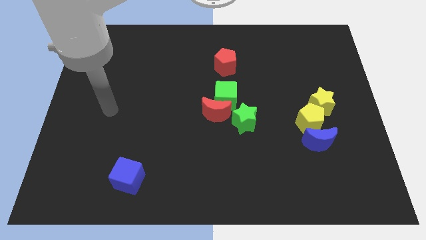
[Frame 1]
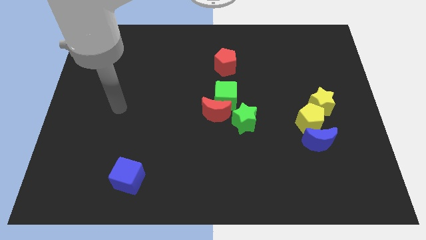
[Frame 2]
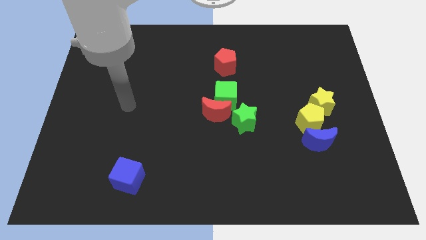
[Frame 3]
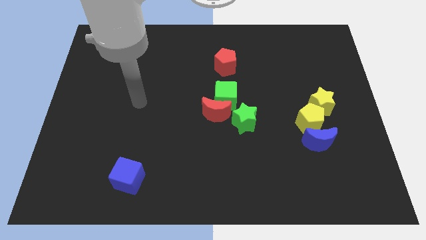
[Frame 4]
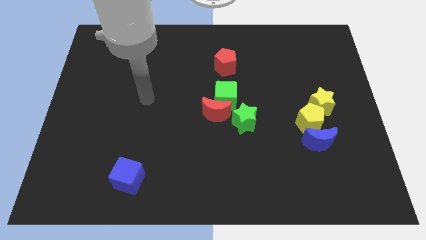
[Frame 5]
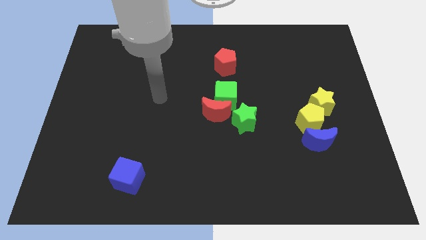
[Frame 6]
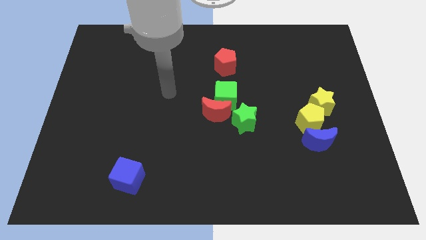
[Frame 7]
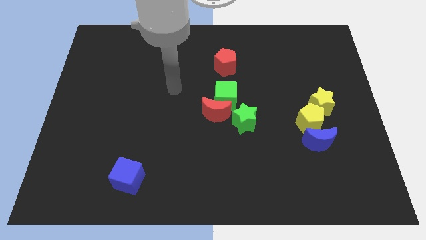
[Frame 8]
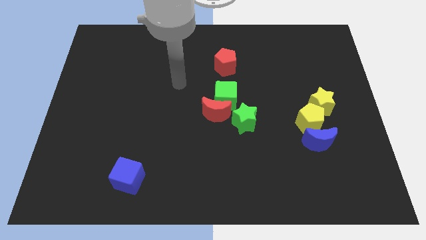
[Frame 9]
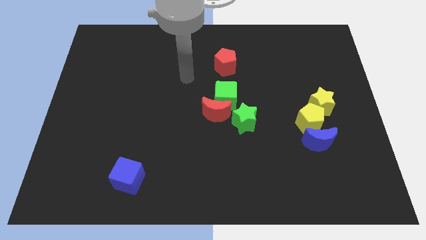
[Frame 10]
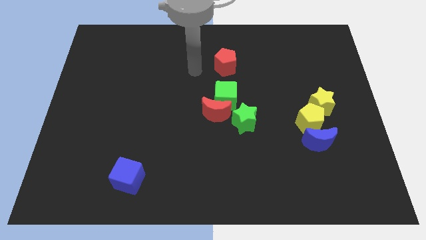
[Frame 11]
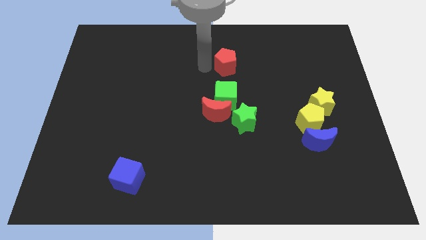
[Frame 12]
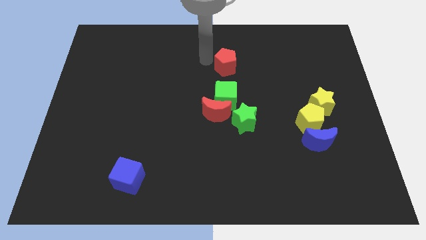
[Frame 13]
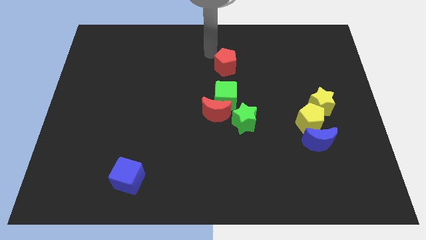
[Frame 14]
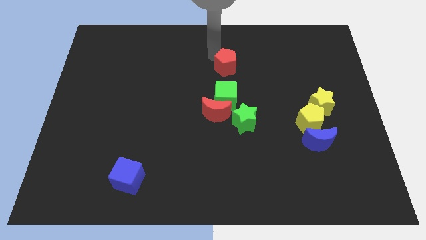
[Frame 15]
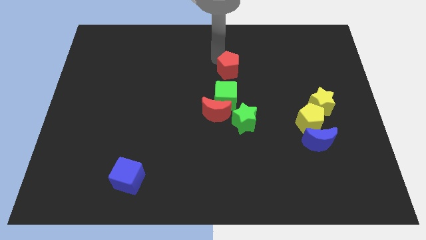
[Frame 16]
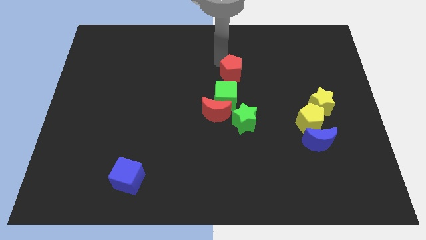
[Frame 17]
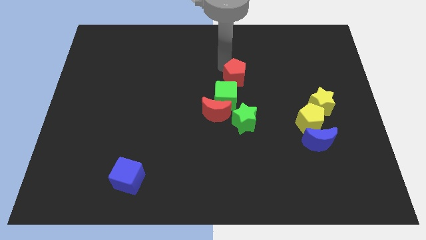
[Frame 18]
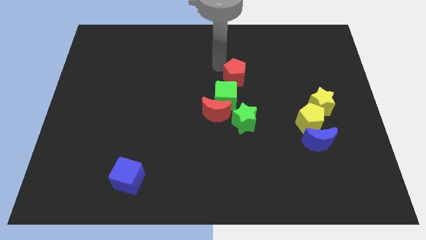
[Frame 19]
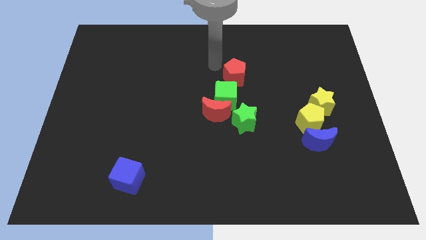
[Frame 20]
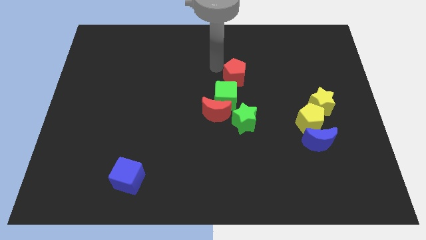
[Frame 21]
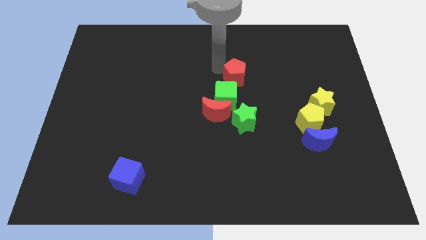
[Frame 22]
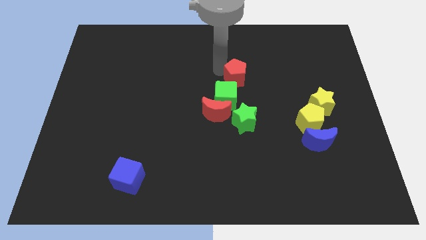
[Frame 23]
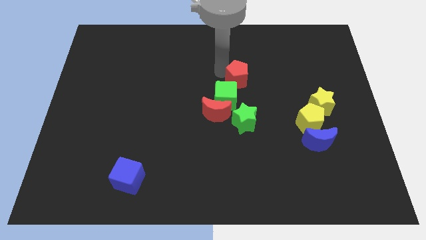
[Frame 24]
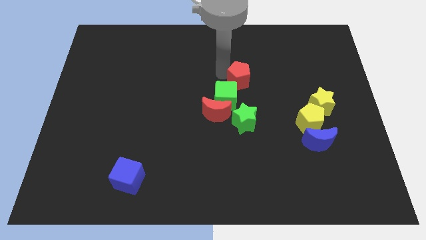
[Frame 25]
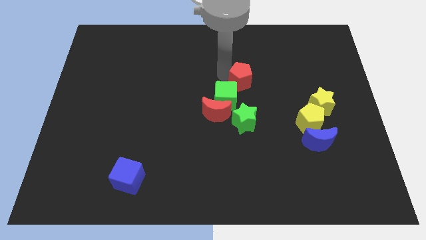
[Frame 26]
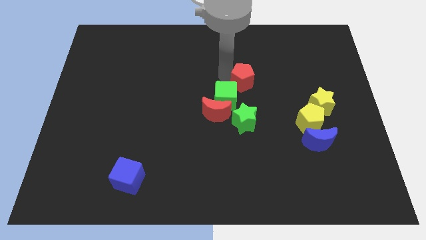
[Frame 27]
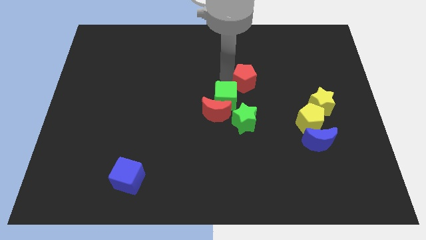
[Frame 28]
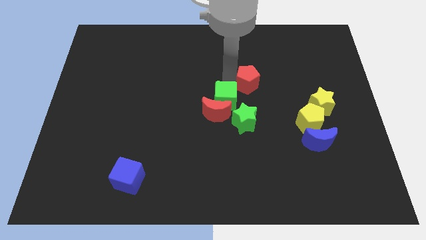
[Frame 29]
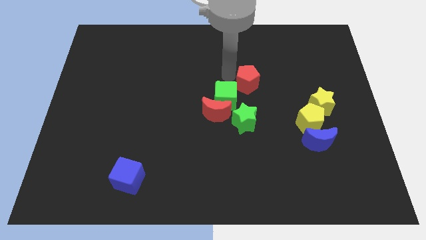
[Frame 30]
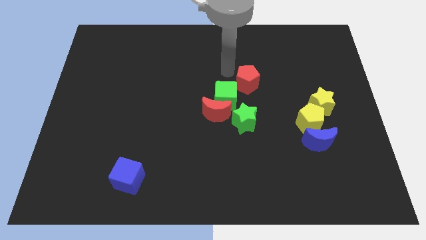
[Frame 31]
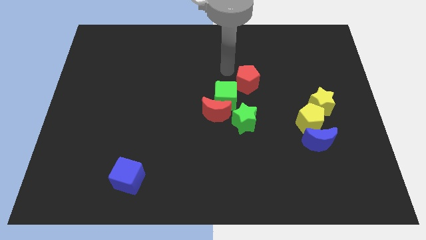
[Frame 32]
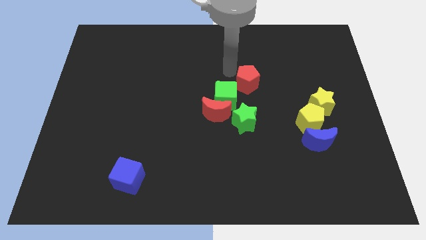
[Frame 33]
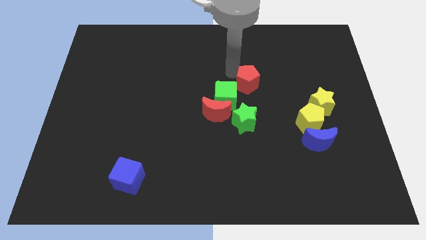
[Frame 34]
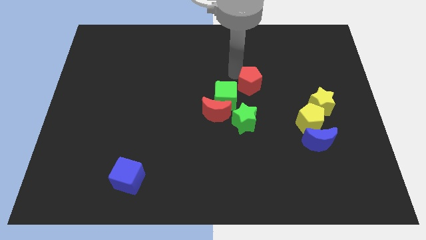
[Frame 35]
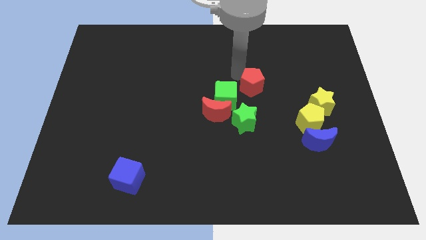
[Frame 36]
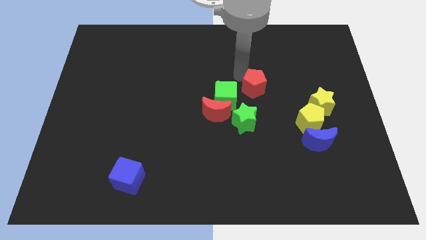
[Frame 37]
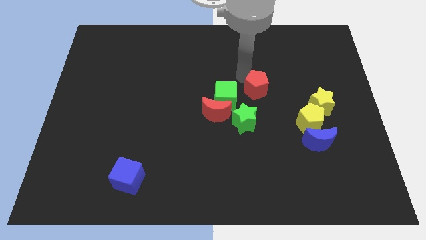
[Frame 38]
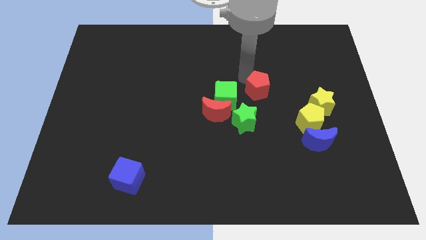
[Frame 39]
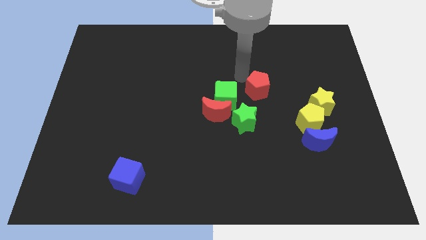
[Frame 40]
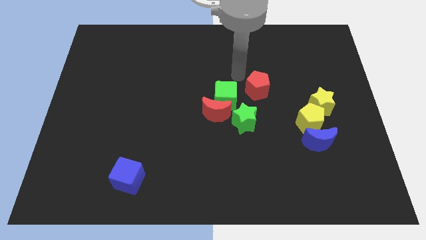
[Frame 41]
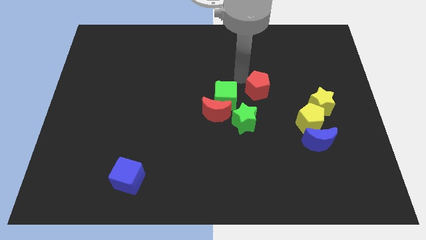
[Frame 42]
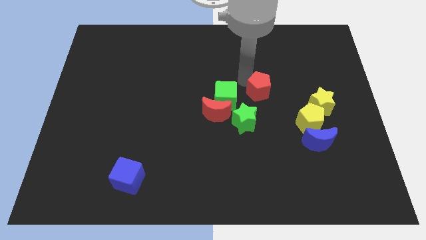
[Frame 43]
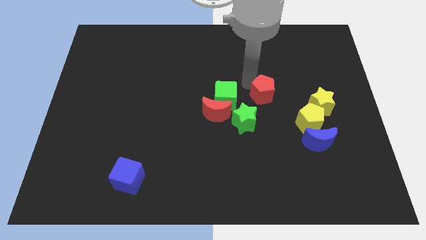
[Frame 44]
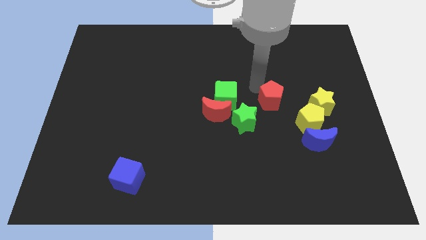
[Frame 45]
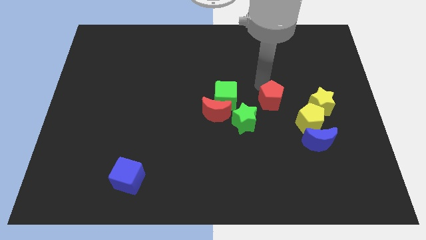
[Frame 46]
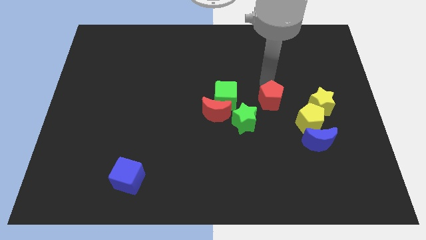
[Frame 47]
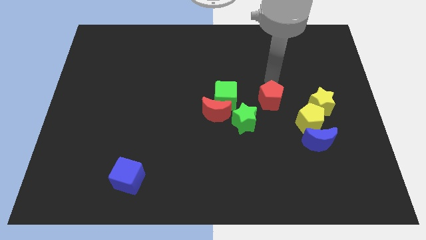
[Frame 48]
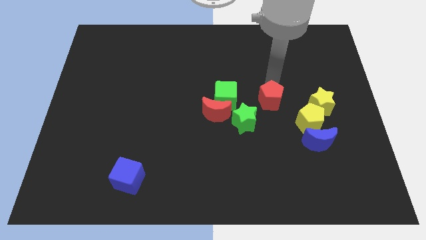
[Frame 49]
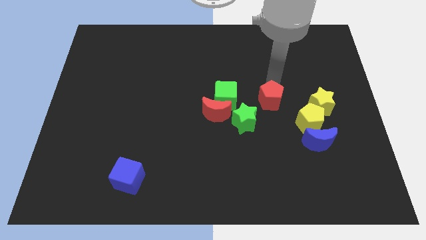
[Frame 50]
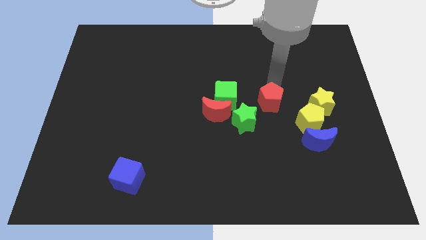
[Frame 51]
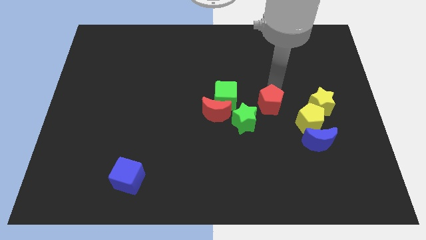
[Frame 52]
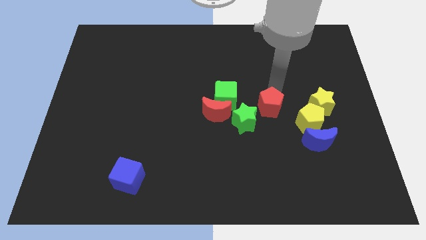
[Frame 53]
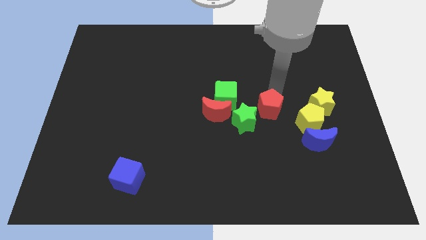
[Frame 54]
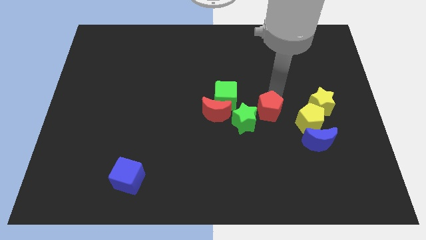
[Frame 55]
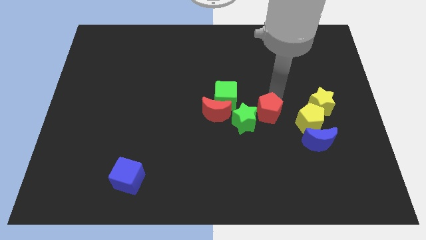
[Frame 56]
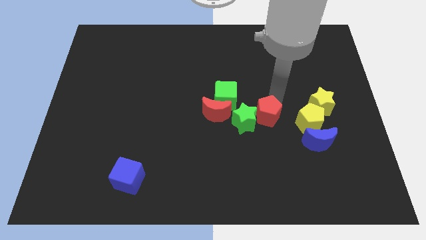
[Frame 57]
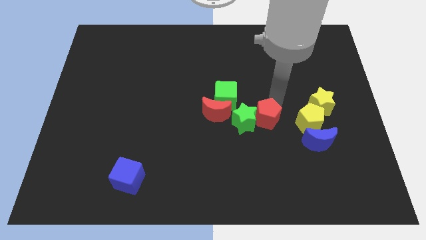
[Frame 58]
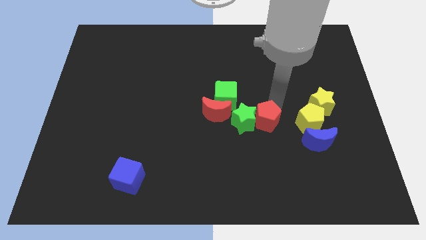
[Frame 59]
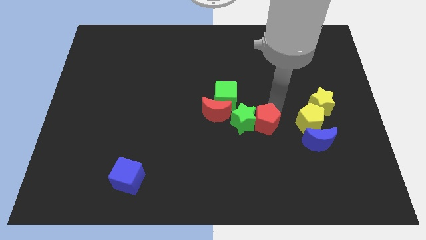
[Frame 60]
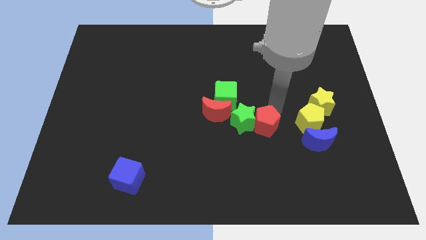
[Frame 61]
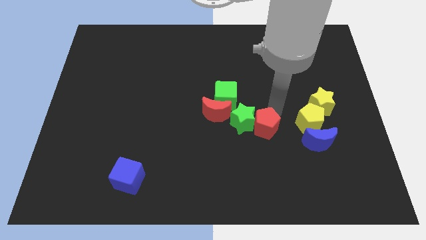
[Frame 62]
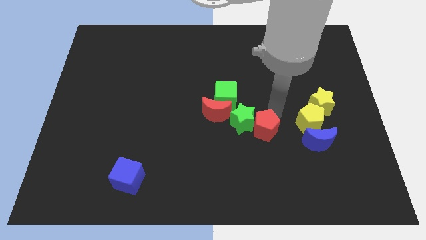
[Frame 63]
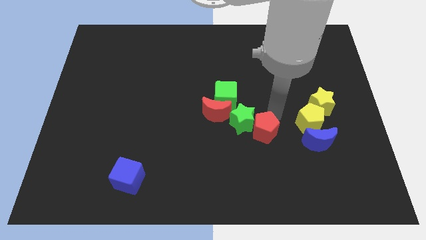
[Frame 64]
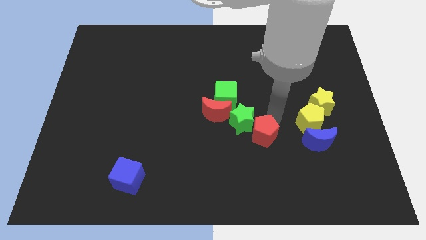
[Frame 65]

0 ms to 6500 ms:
push the red pentagon below the green star
